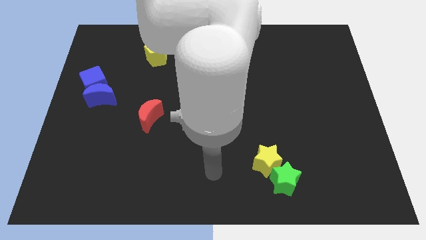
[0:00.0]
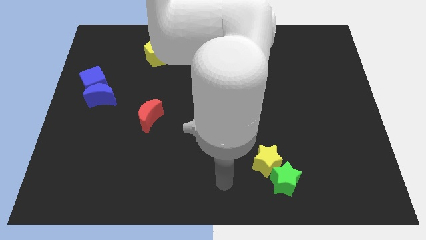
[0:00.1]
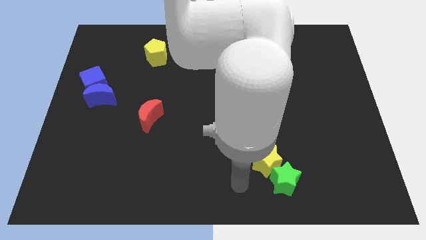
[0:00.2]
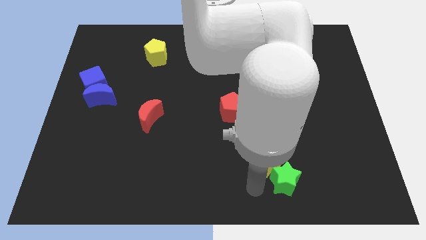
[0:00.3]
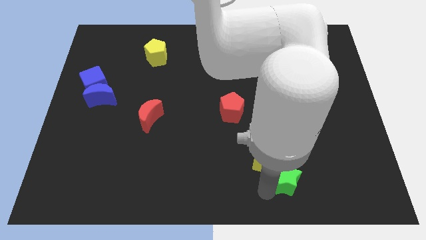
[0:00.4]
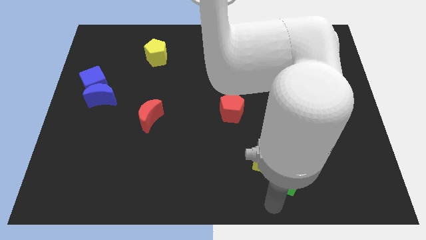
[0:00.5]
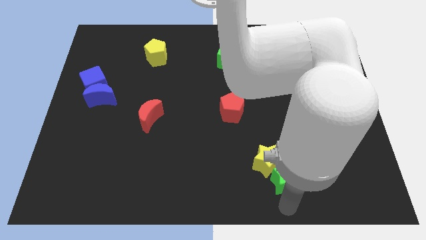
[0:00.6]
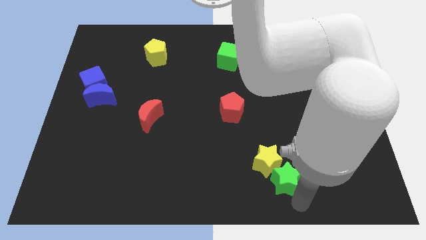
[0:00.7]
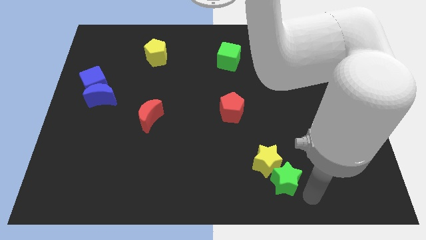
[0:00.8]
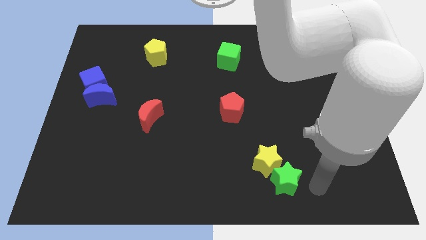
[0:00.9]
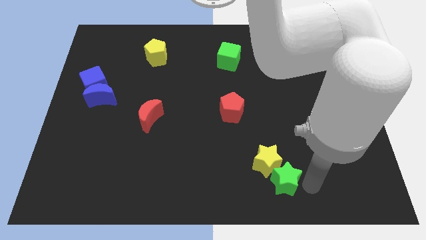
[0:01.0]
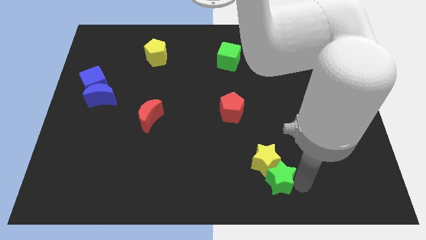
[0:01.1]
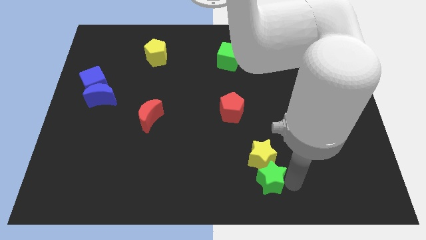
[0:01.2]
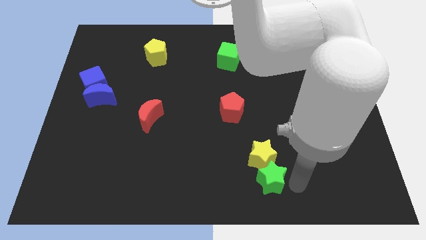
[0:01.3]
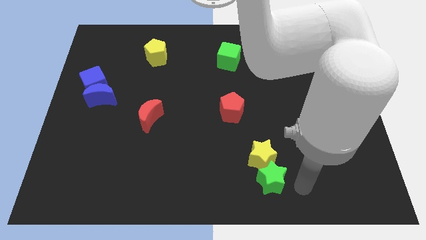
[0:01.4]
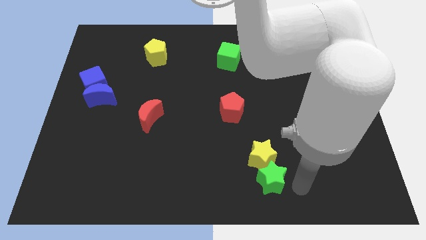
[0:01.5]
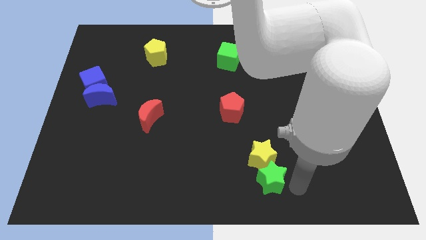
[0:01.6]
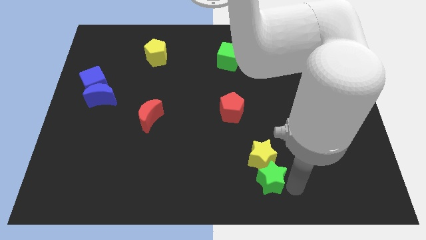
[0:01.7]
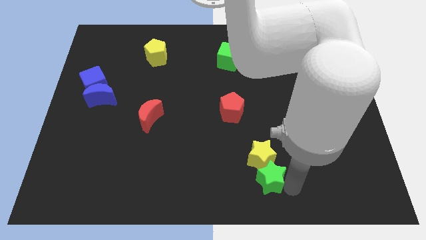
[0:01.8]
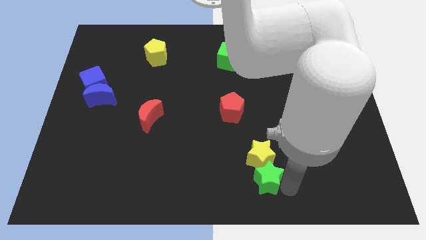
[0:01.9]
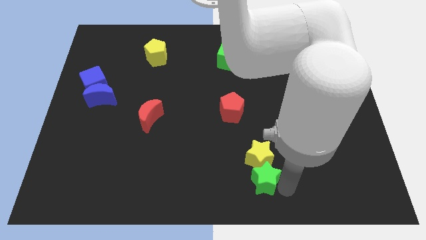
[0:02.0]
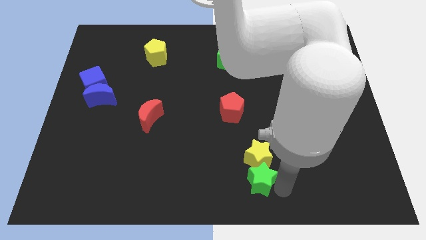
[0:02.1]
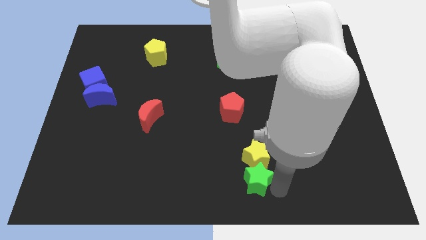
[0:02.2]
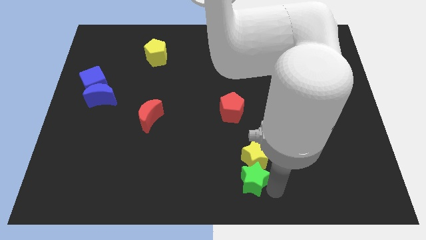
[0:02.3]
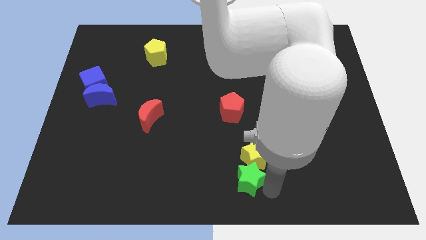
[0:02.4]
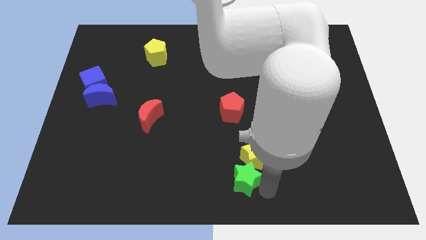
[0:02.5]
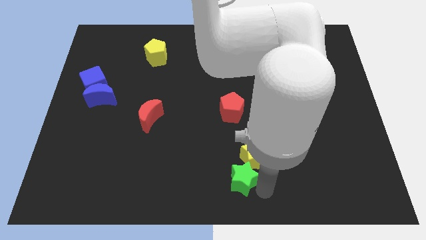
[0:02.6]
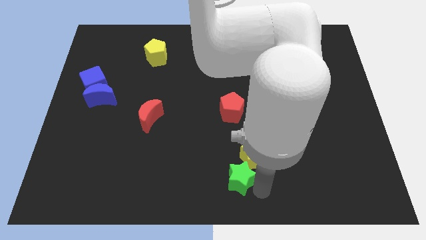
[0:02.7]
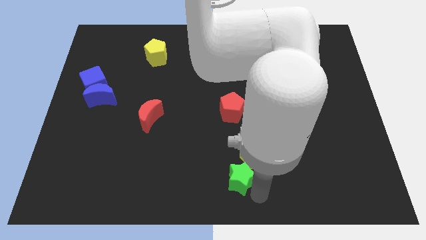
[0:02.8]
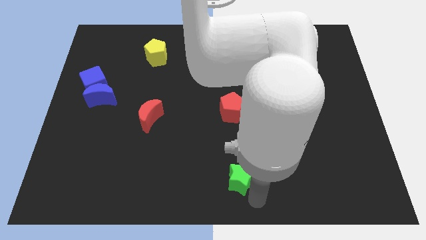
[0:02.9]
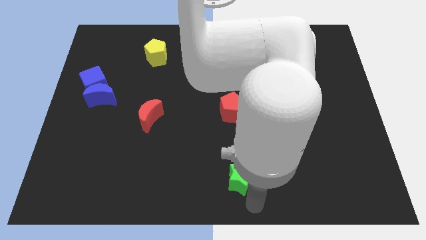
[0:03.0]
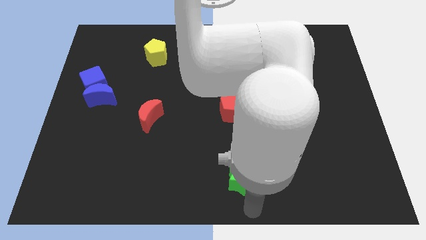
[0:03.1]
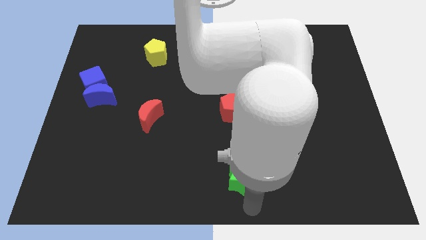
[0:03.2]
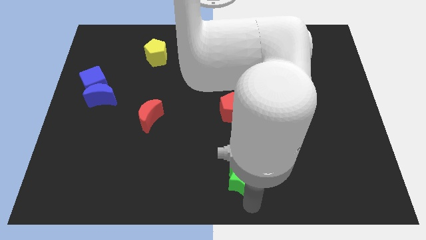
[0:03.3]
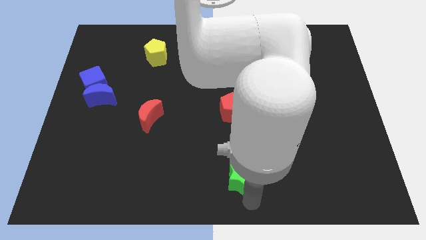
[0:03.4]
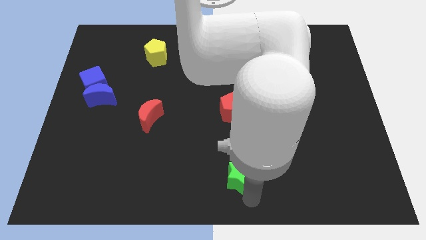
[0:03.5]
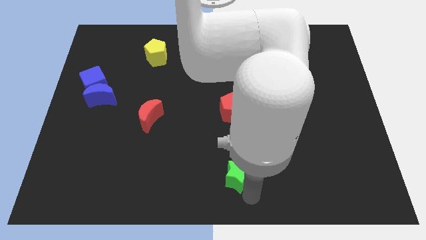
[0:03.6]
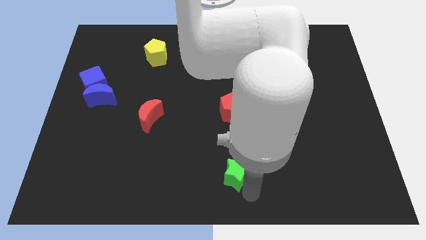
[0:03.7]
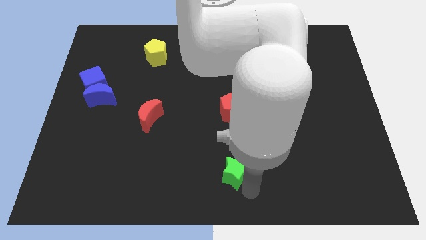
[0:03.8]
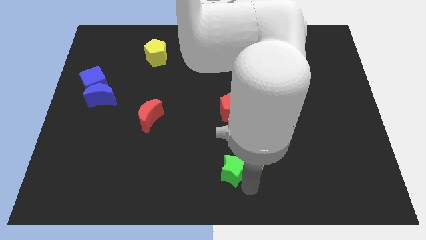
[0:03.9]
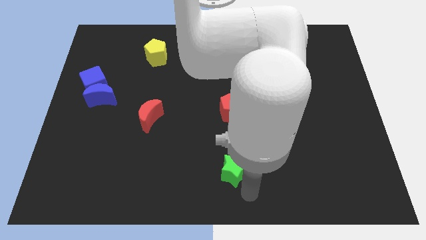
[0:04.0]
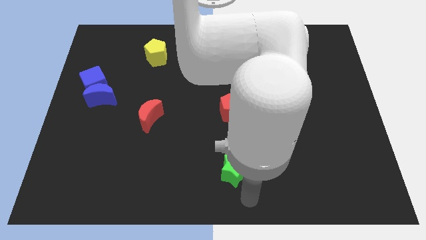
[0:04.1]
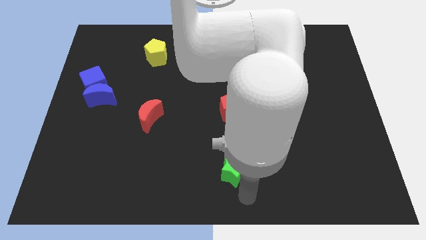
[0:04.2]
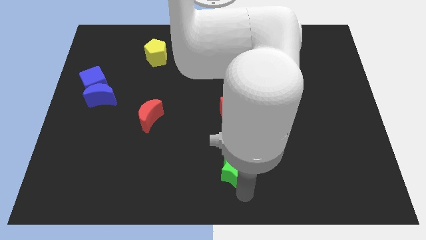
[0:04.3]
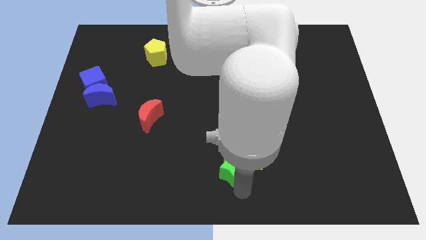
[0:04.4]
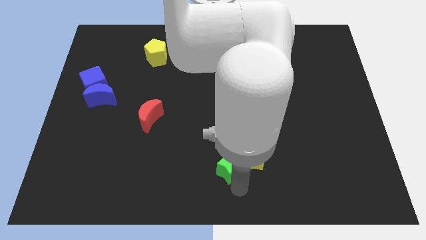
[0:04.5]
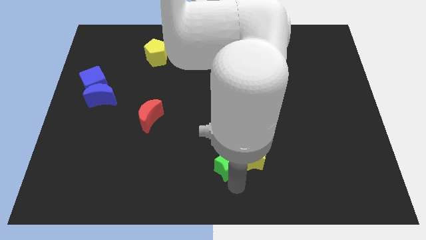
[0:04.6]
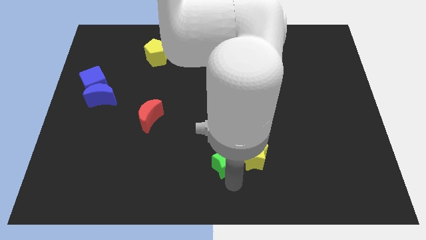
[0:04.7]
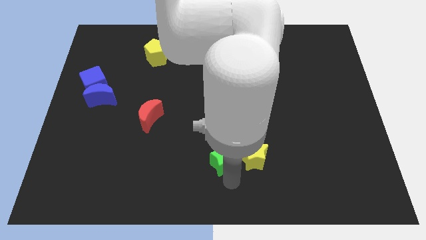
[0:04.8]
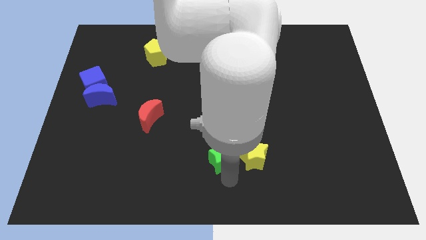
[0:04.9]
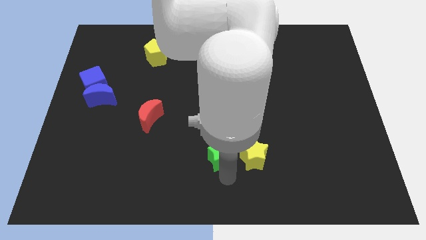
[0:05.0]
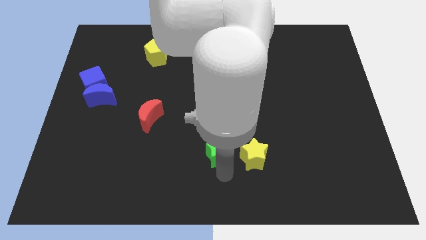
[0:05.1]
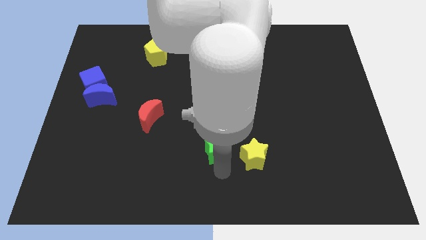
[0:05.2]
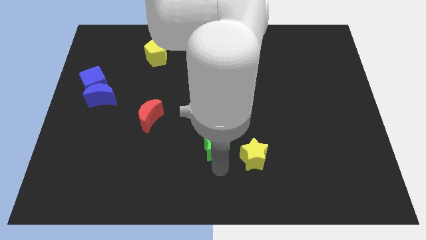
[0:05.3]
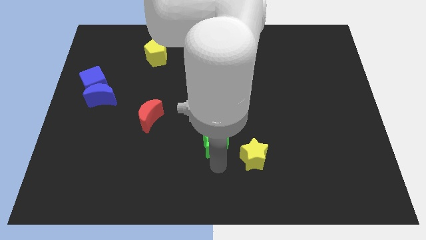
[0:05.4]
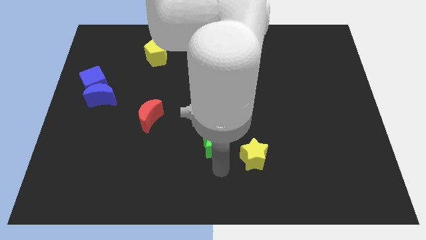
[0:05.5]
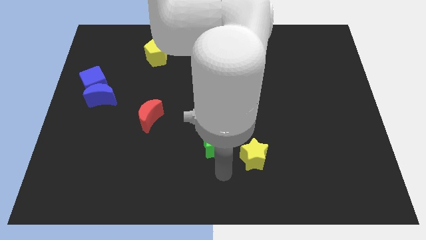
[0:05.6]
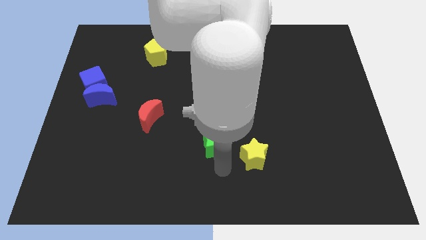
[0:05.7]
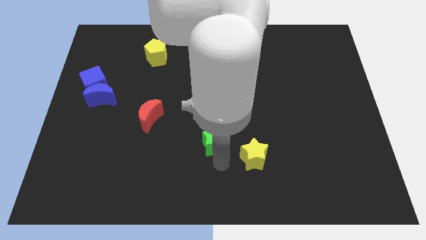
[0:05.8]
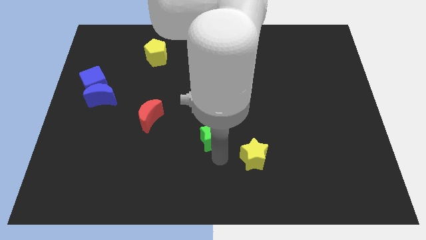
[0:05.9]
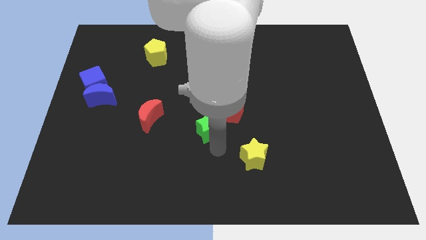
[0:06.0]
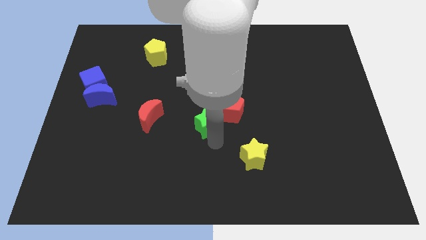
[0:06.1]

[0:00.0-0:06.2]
push the green star diagonally upwards and to the left

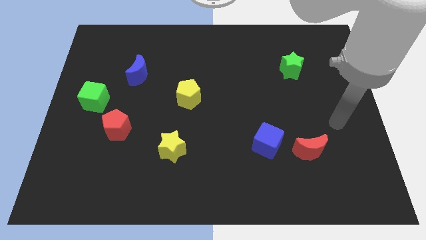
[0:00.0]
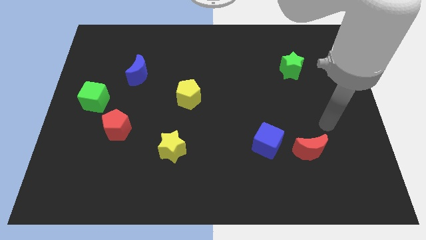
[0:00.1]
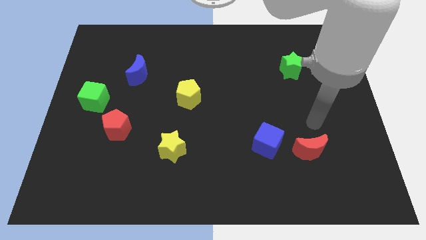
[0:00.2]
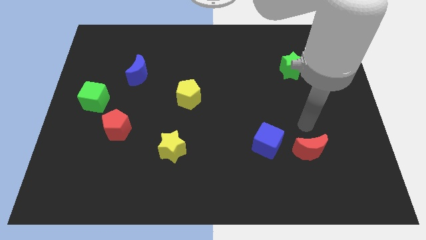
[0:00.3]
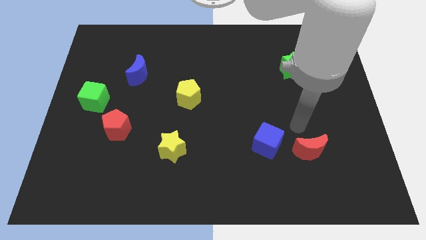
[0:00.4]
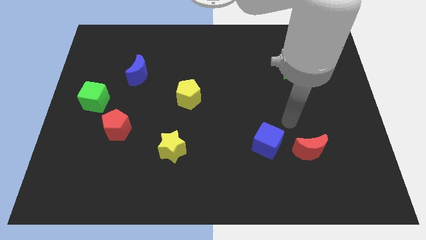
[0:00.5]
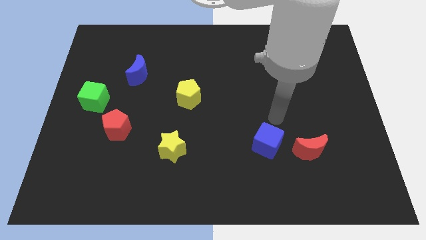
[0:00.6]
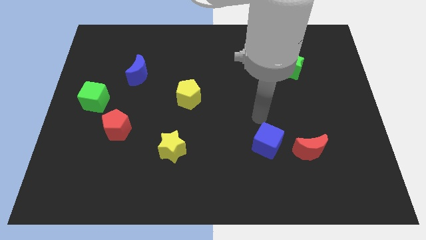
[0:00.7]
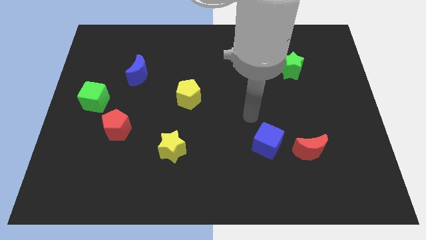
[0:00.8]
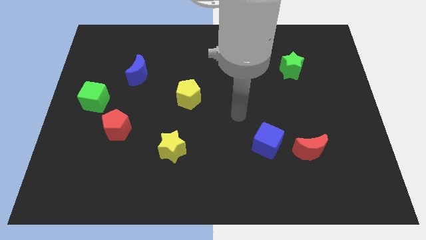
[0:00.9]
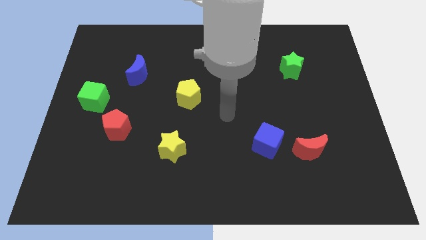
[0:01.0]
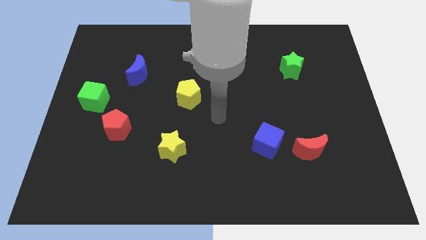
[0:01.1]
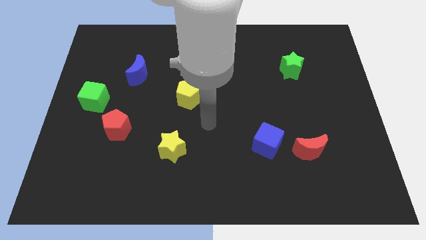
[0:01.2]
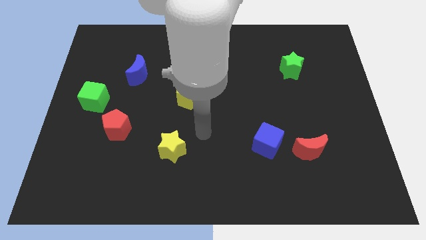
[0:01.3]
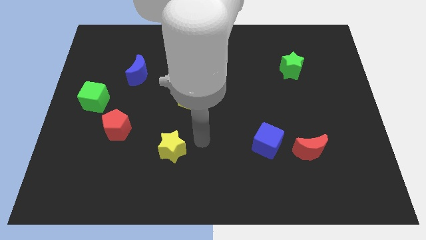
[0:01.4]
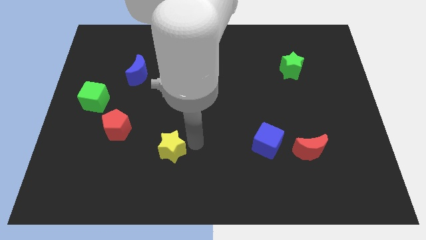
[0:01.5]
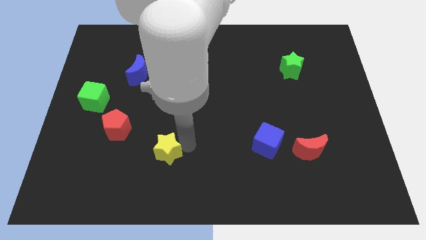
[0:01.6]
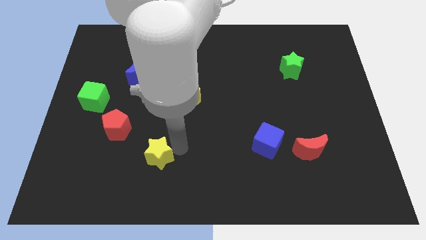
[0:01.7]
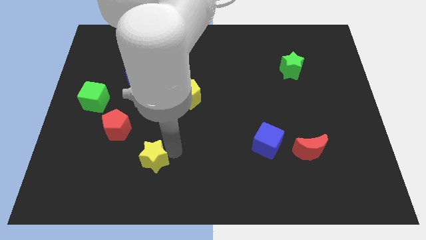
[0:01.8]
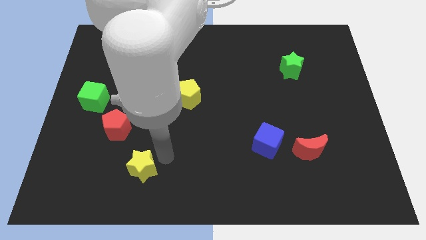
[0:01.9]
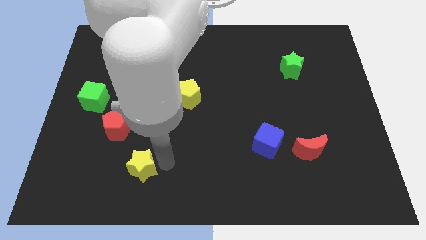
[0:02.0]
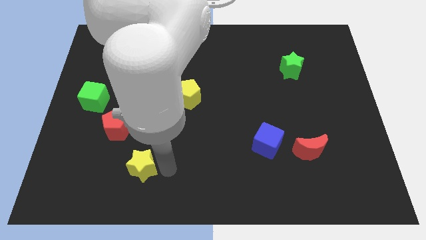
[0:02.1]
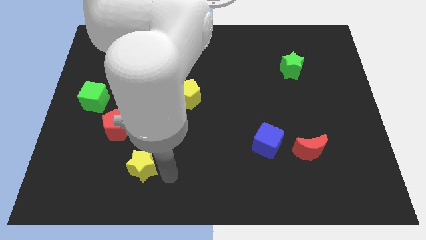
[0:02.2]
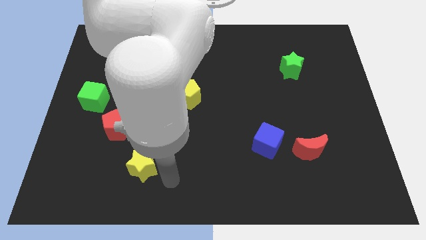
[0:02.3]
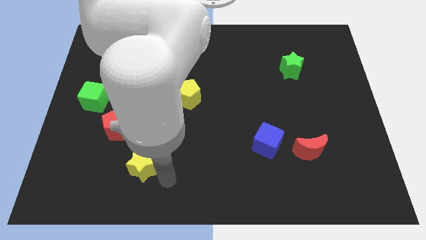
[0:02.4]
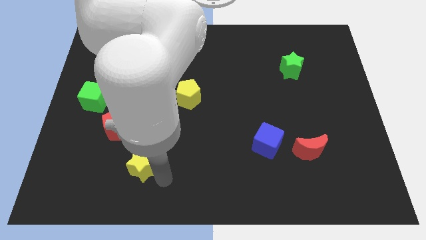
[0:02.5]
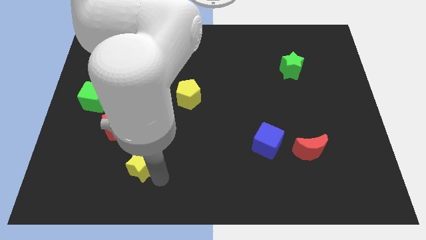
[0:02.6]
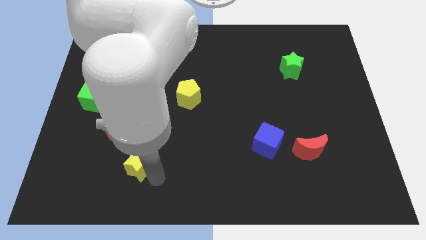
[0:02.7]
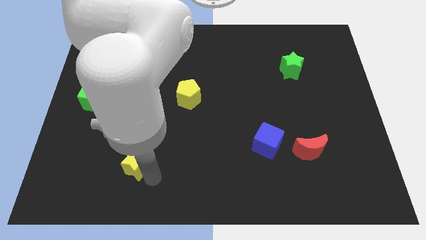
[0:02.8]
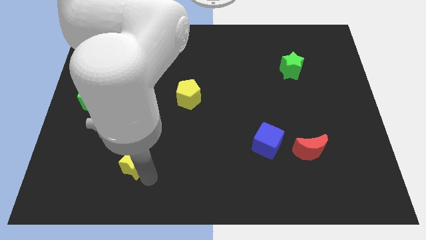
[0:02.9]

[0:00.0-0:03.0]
slide the yellow star left slightly
